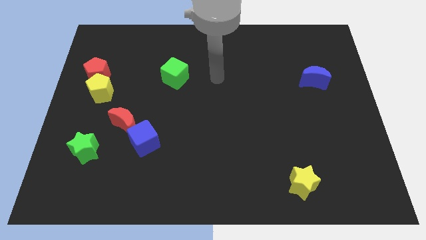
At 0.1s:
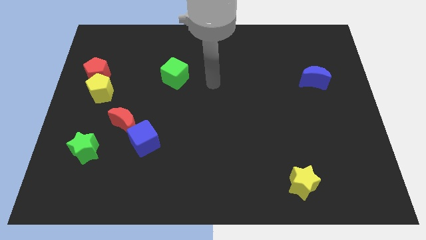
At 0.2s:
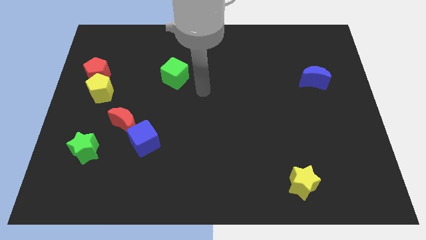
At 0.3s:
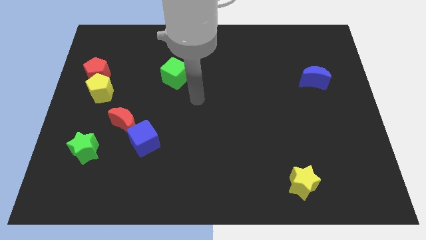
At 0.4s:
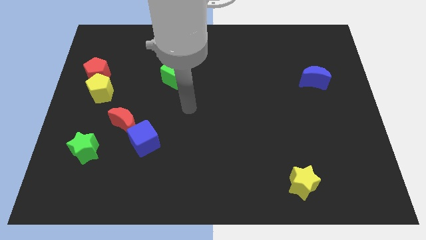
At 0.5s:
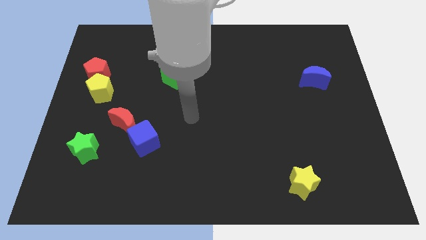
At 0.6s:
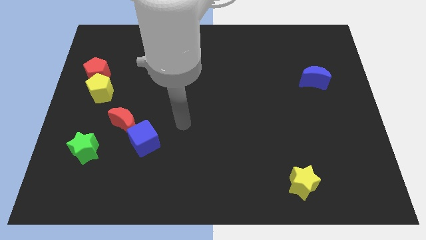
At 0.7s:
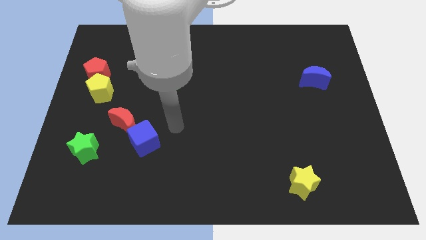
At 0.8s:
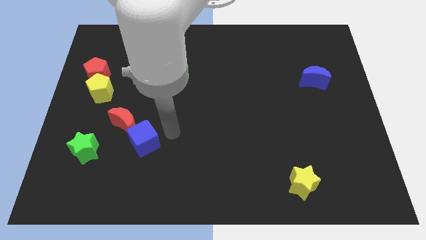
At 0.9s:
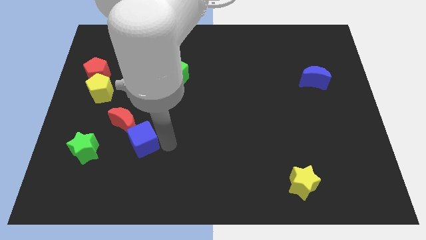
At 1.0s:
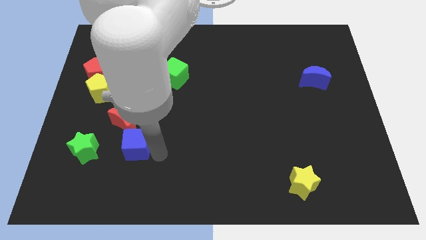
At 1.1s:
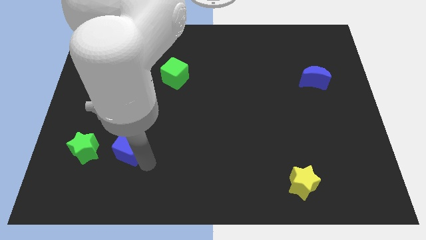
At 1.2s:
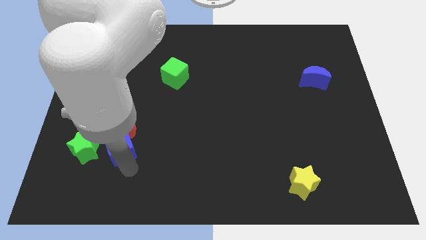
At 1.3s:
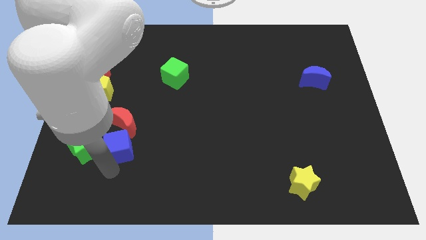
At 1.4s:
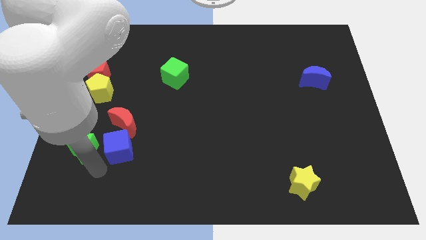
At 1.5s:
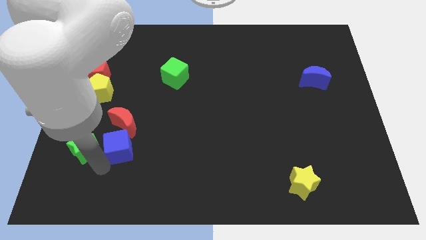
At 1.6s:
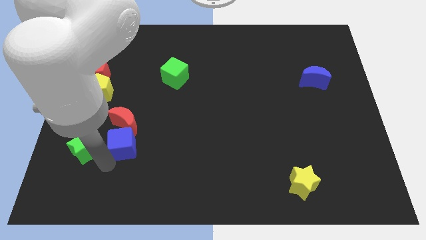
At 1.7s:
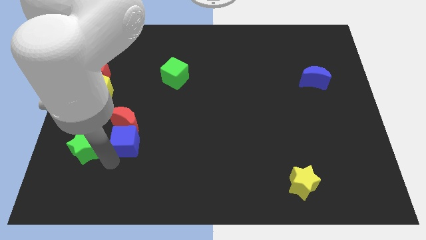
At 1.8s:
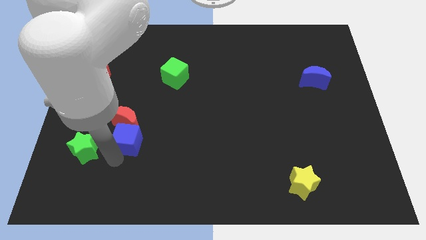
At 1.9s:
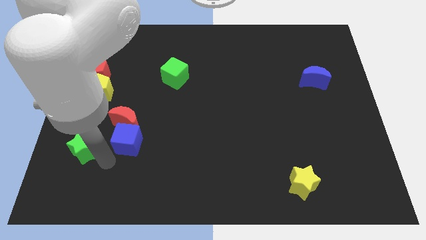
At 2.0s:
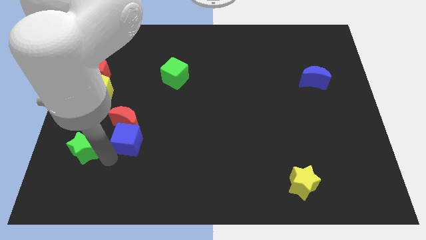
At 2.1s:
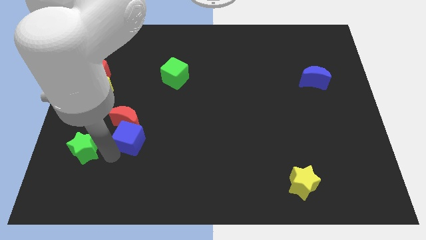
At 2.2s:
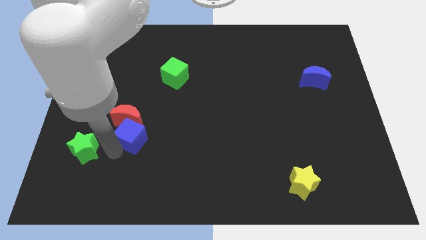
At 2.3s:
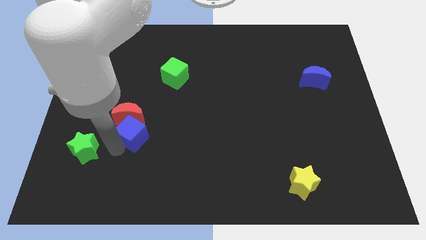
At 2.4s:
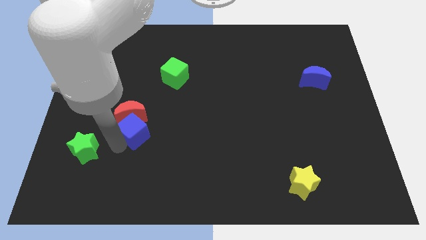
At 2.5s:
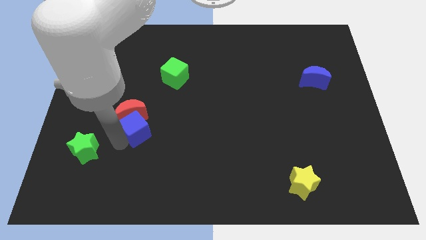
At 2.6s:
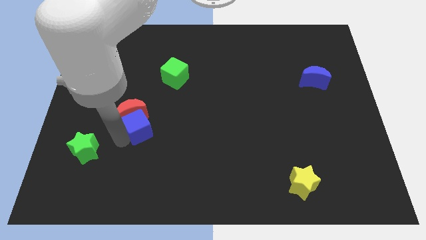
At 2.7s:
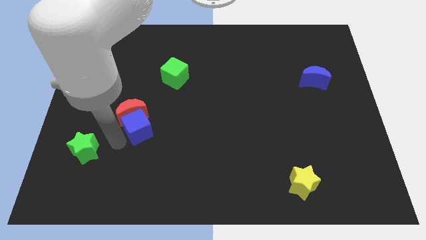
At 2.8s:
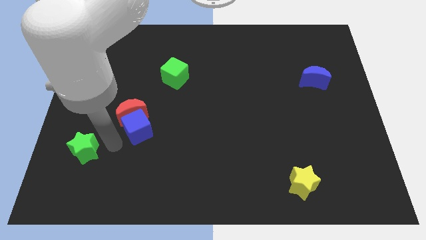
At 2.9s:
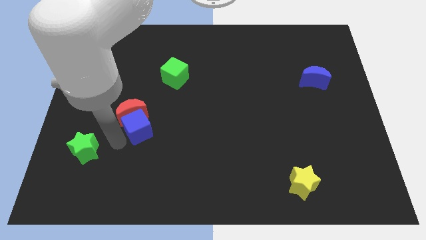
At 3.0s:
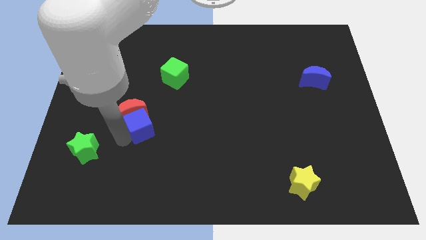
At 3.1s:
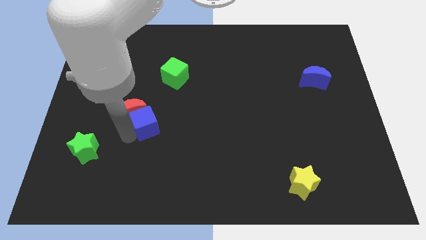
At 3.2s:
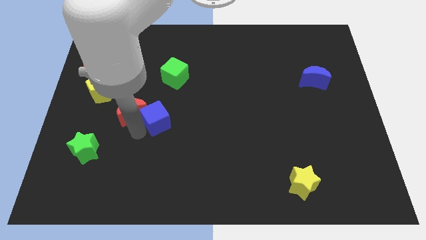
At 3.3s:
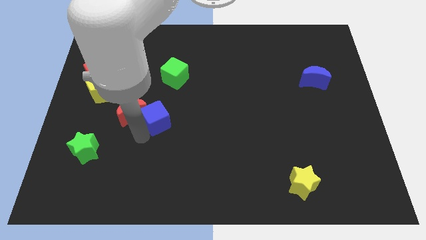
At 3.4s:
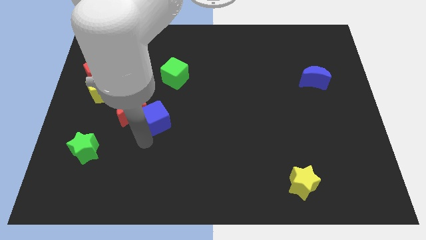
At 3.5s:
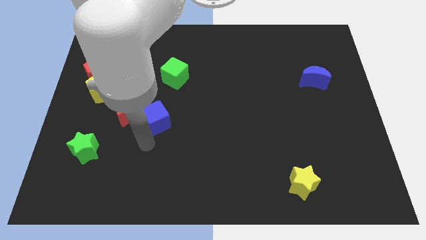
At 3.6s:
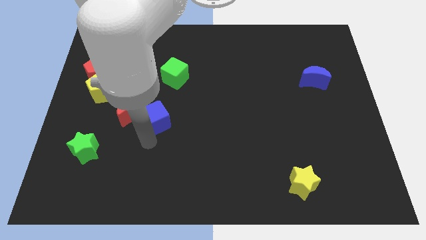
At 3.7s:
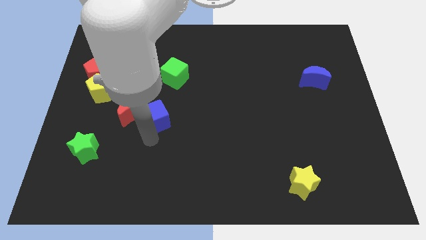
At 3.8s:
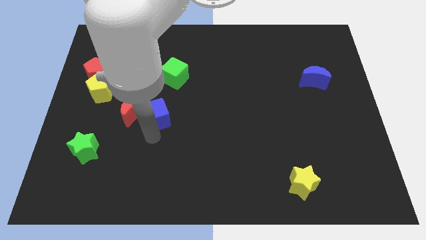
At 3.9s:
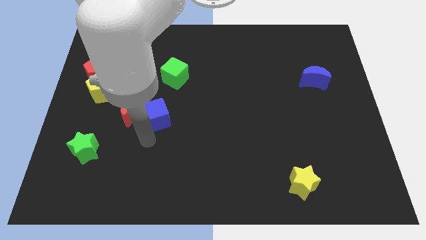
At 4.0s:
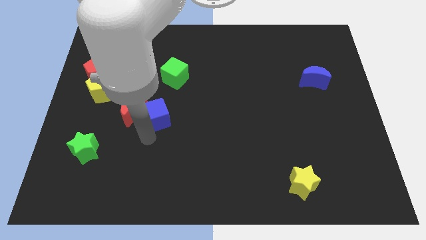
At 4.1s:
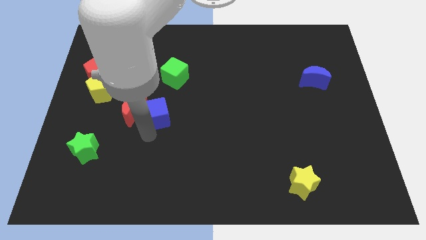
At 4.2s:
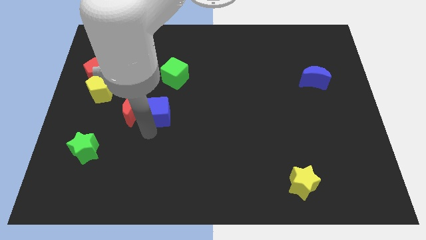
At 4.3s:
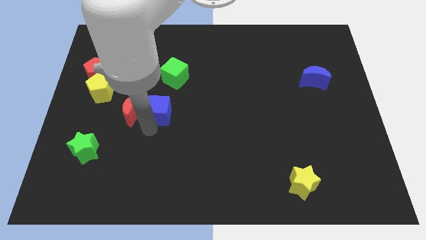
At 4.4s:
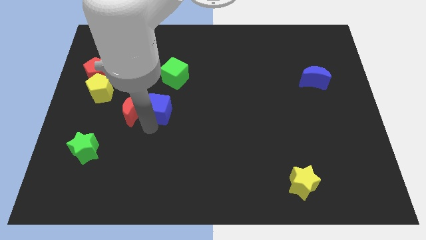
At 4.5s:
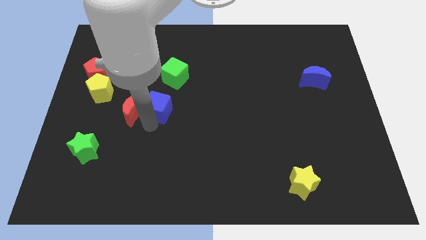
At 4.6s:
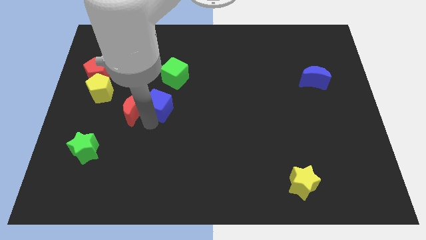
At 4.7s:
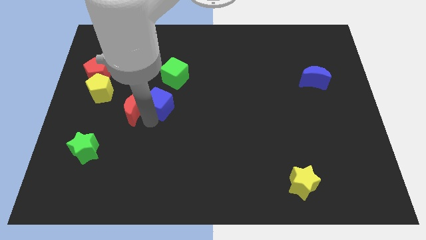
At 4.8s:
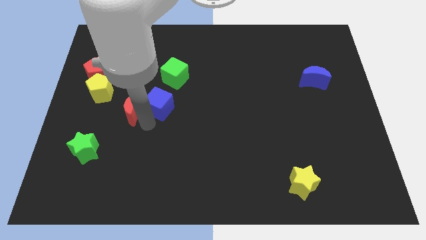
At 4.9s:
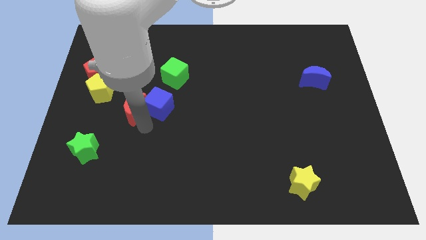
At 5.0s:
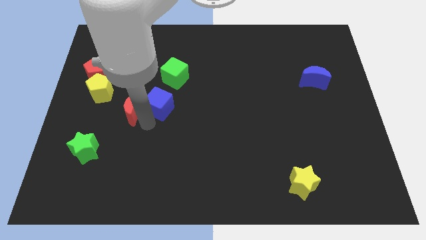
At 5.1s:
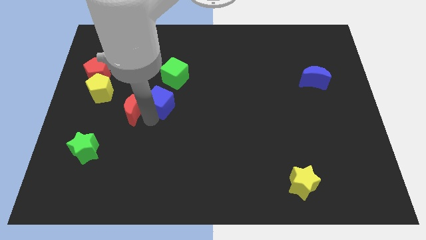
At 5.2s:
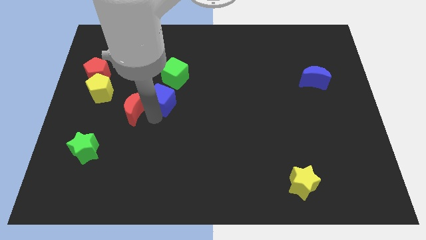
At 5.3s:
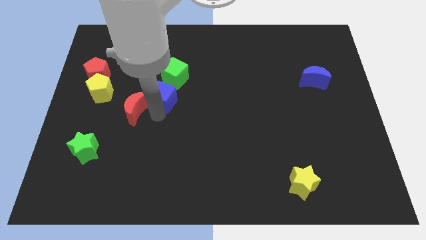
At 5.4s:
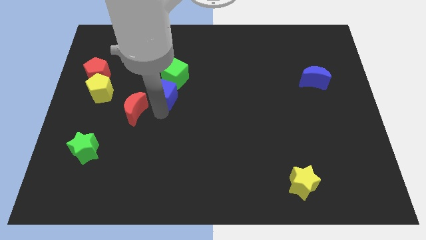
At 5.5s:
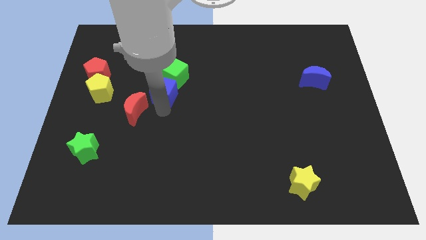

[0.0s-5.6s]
move the blue cube towards the green cube

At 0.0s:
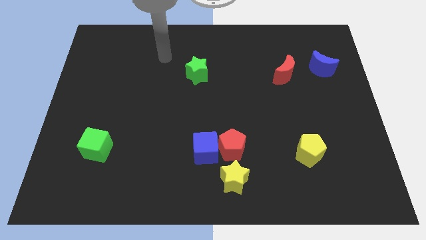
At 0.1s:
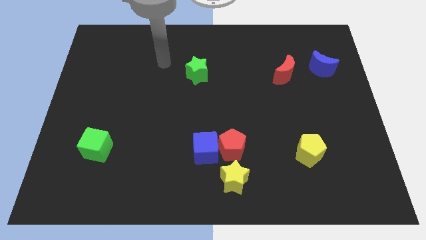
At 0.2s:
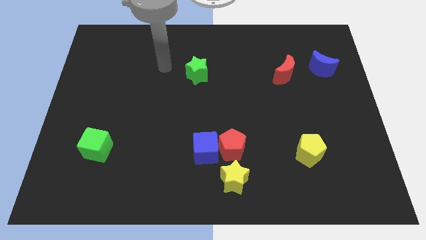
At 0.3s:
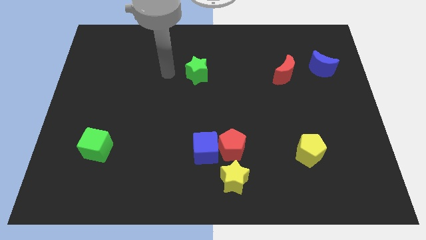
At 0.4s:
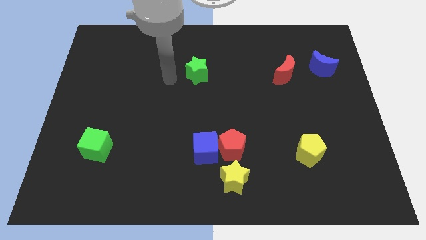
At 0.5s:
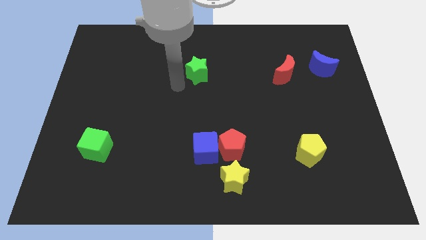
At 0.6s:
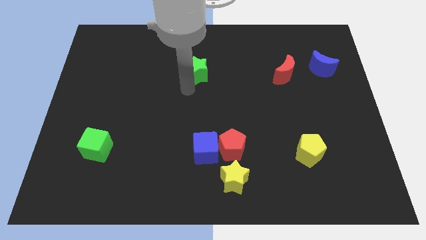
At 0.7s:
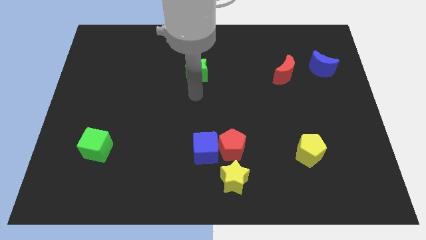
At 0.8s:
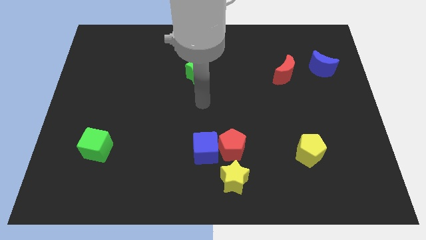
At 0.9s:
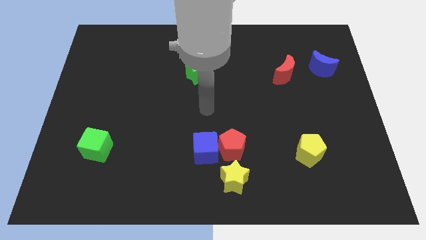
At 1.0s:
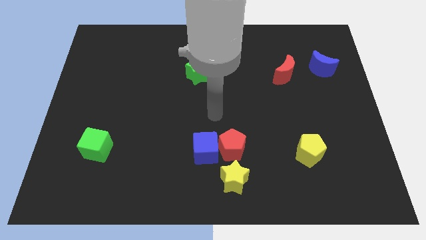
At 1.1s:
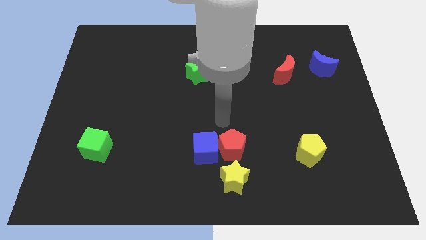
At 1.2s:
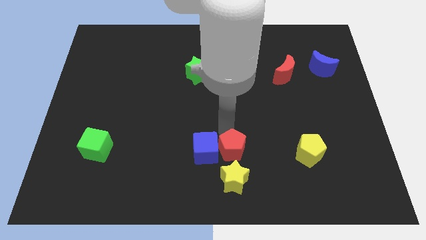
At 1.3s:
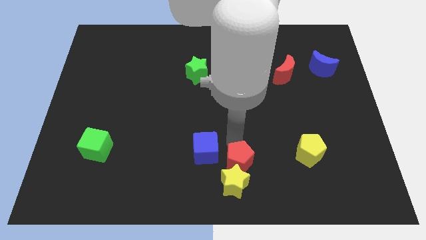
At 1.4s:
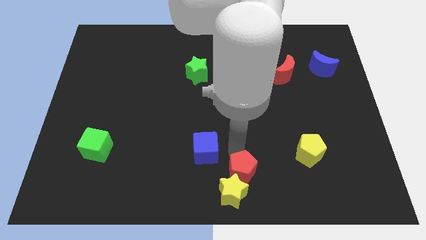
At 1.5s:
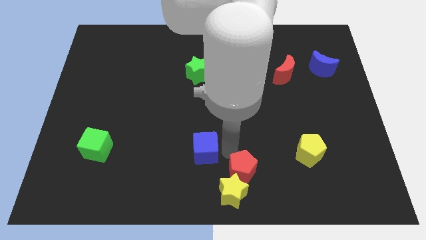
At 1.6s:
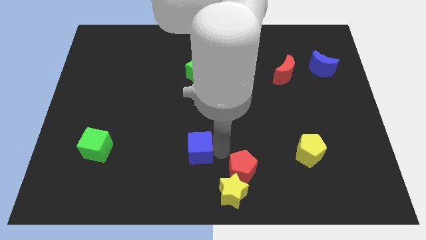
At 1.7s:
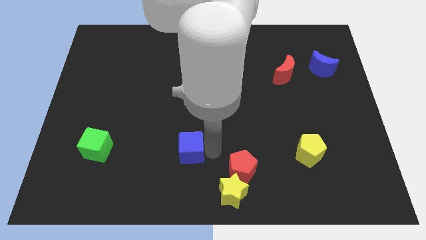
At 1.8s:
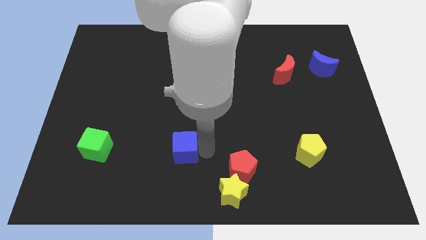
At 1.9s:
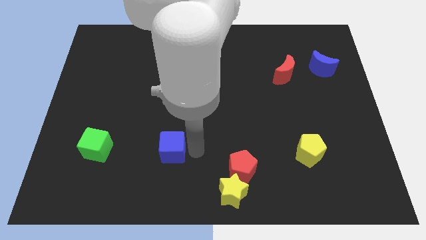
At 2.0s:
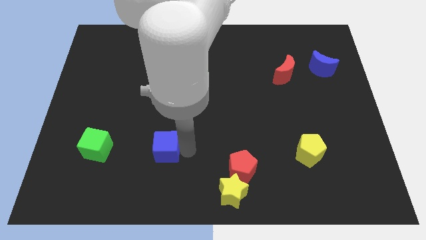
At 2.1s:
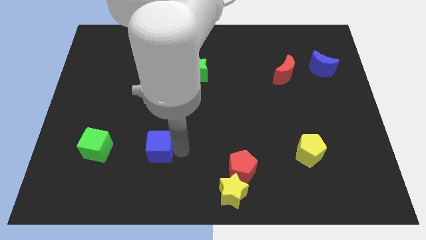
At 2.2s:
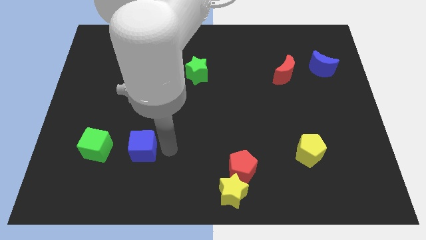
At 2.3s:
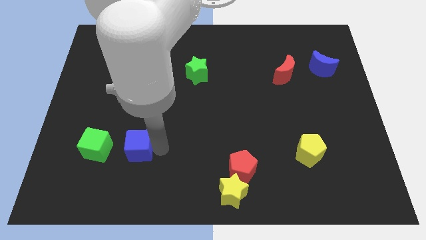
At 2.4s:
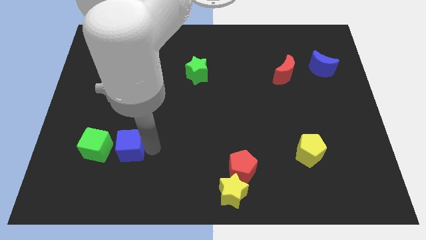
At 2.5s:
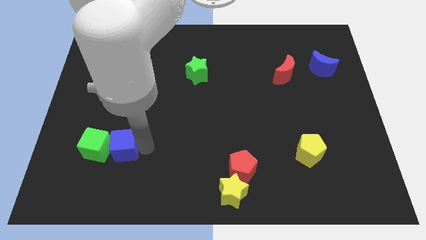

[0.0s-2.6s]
move the blue cube close to the green cube
